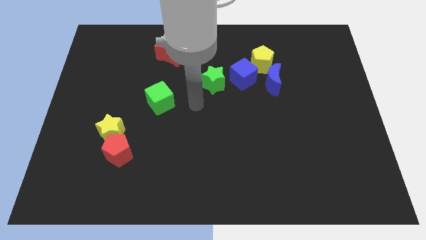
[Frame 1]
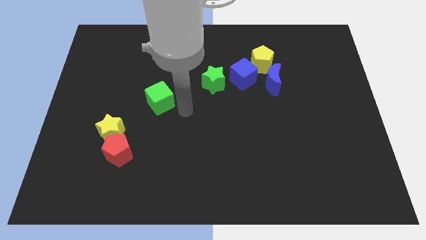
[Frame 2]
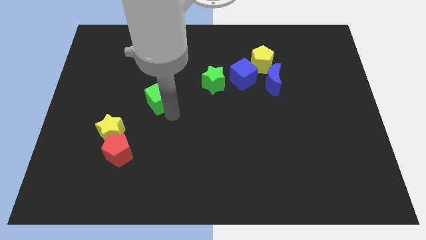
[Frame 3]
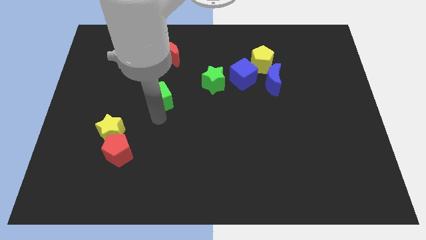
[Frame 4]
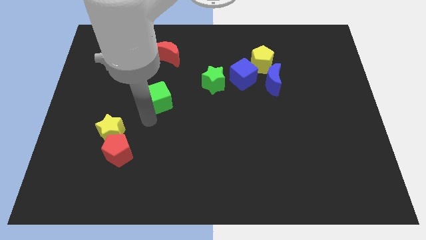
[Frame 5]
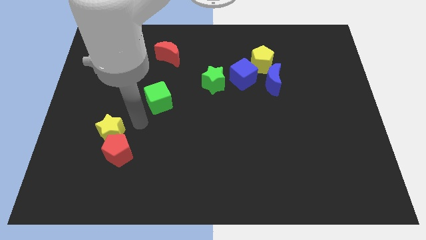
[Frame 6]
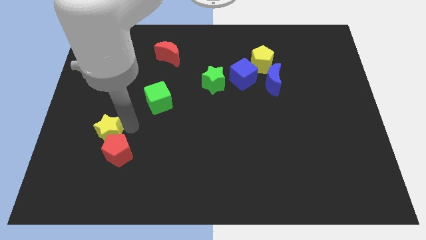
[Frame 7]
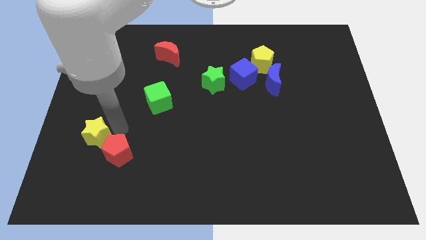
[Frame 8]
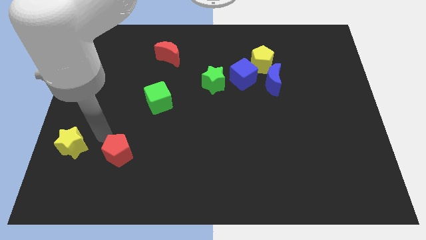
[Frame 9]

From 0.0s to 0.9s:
separate the red pentagon from the yellow star

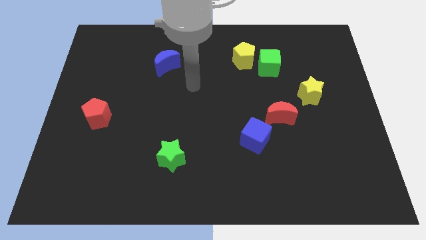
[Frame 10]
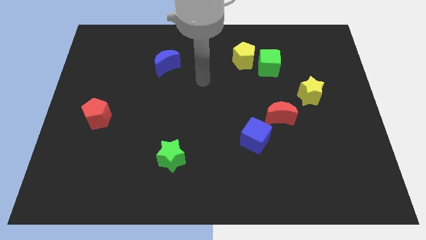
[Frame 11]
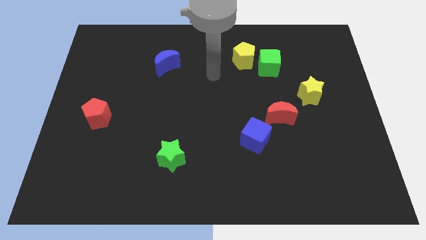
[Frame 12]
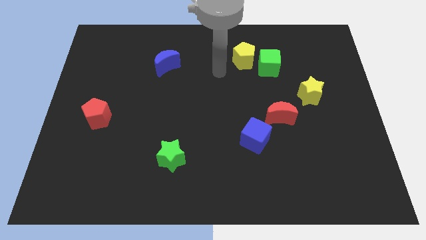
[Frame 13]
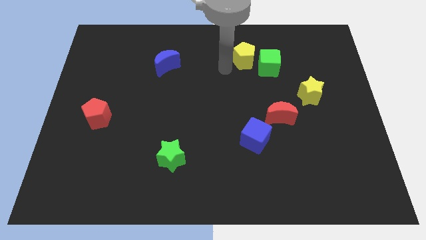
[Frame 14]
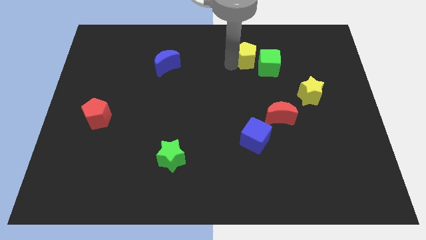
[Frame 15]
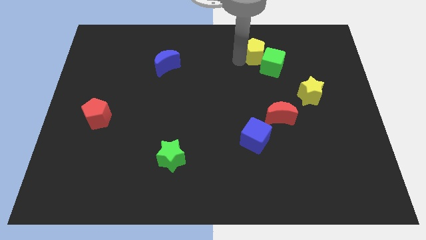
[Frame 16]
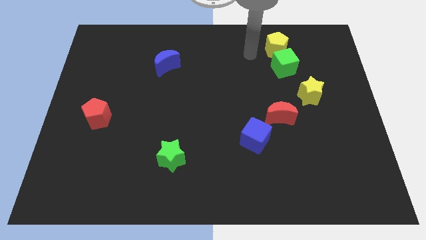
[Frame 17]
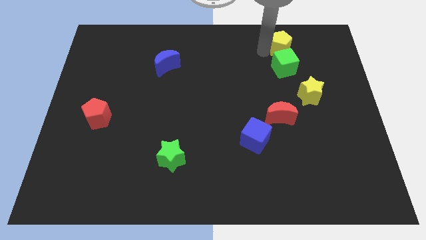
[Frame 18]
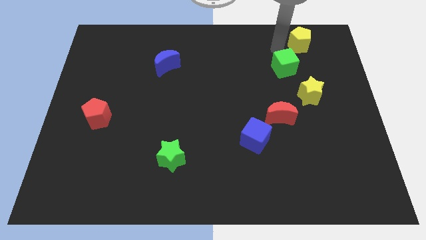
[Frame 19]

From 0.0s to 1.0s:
separate the green cube from the yellow pentagon

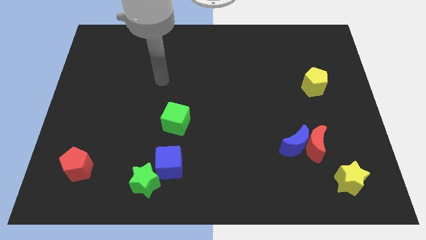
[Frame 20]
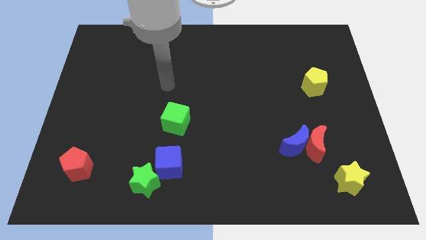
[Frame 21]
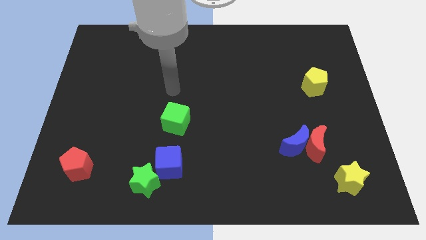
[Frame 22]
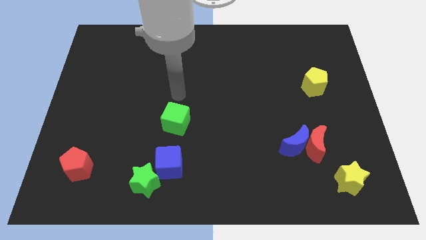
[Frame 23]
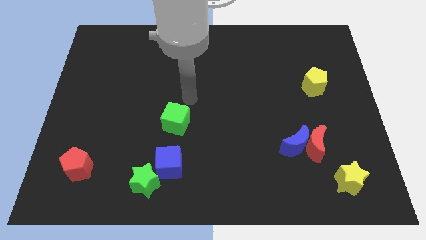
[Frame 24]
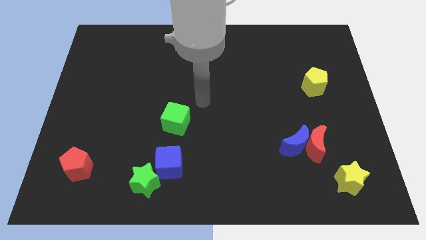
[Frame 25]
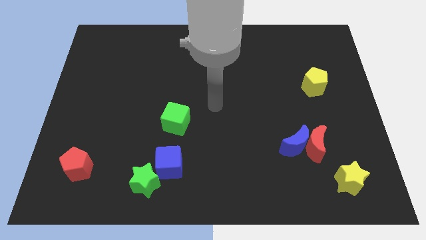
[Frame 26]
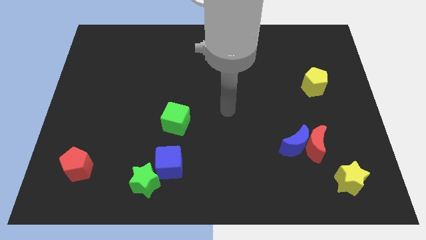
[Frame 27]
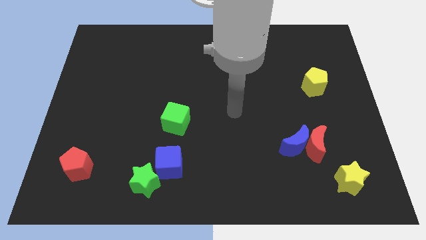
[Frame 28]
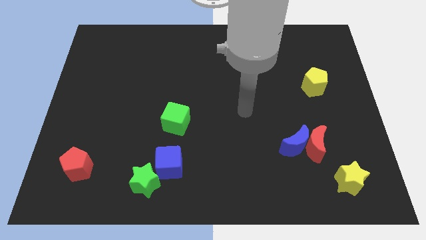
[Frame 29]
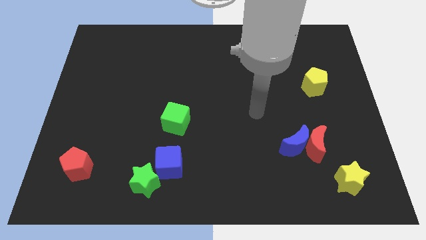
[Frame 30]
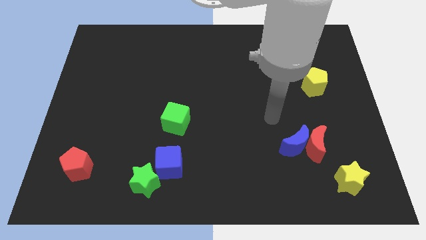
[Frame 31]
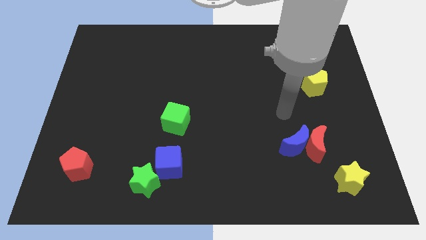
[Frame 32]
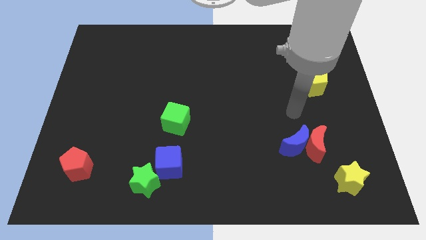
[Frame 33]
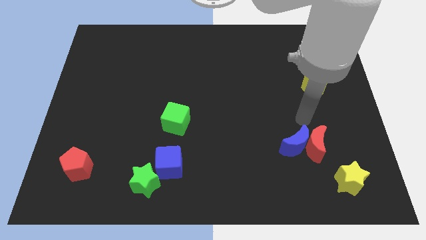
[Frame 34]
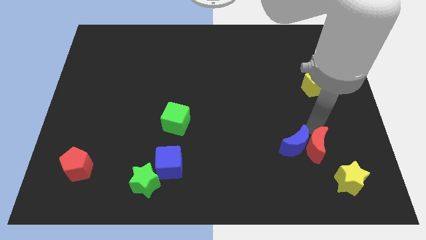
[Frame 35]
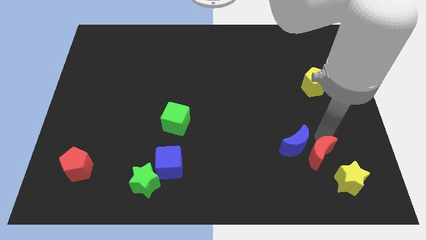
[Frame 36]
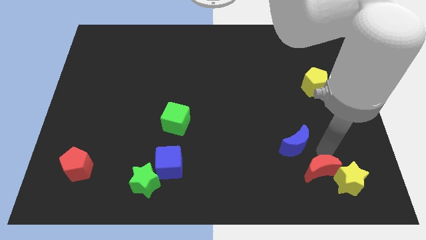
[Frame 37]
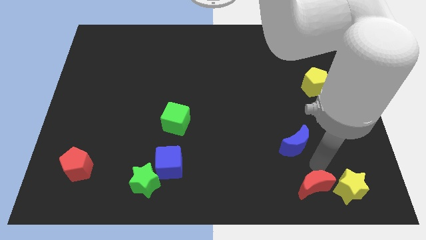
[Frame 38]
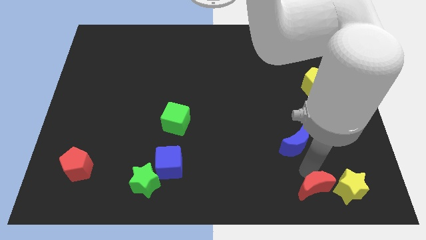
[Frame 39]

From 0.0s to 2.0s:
pull the blue moon apart from the red moon

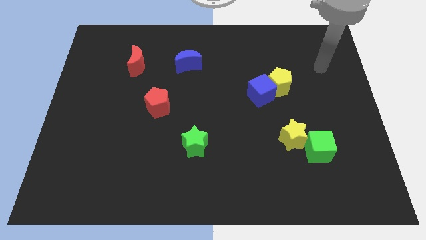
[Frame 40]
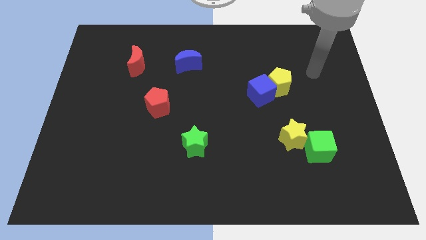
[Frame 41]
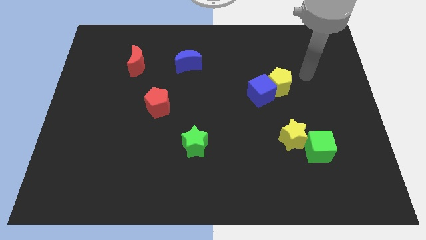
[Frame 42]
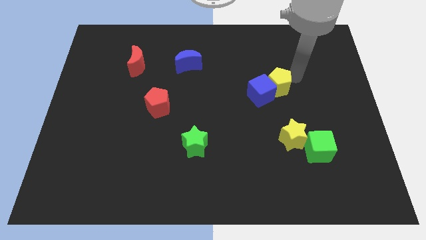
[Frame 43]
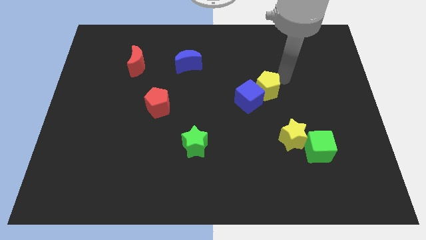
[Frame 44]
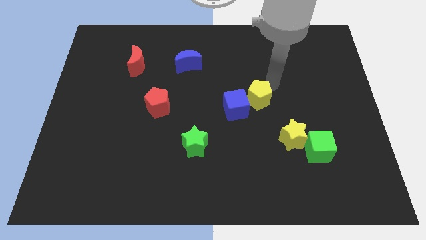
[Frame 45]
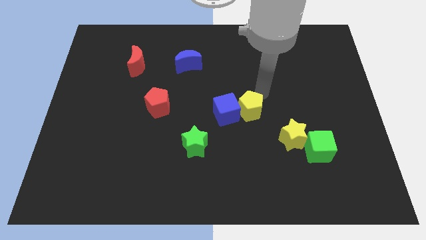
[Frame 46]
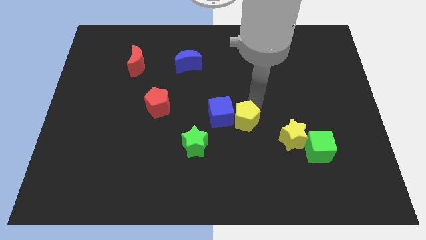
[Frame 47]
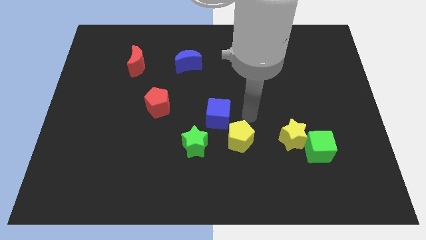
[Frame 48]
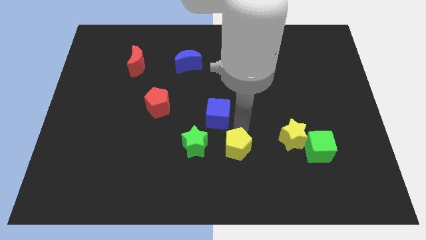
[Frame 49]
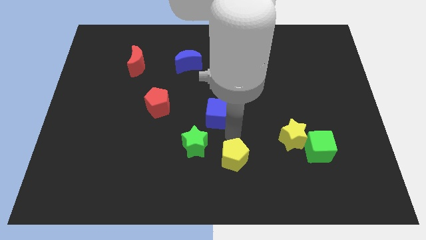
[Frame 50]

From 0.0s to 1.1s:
pull the blue cube apart from the yellow pentagon

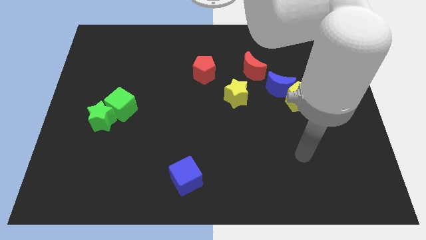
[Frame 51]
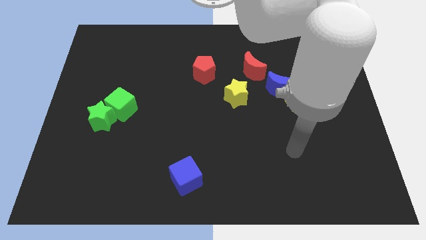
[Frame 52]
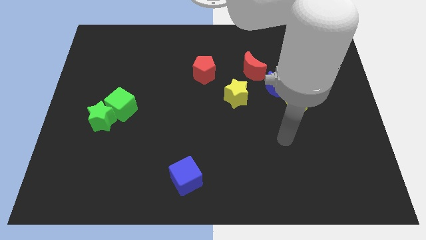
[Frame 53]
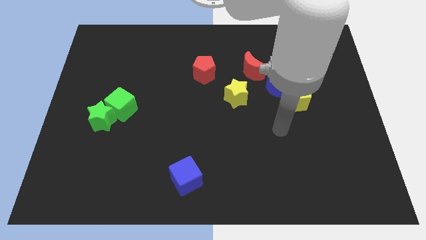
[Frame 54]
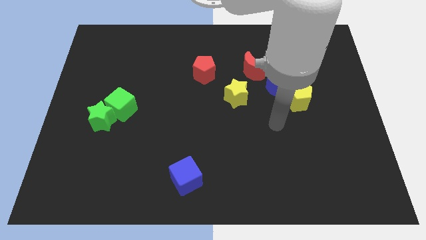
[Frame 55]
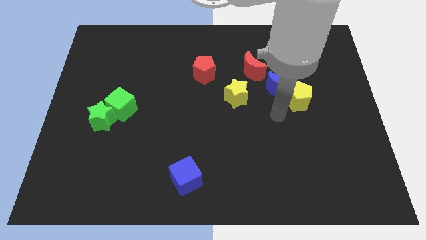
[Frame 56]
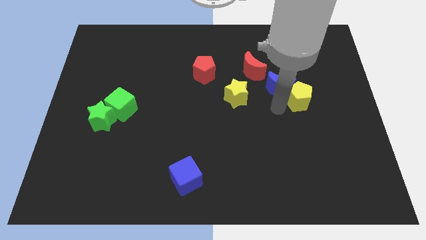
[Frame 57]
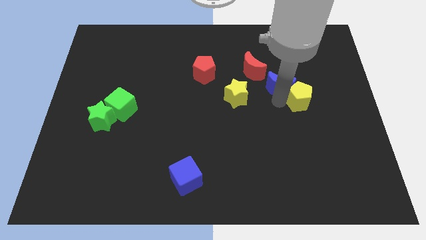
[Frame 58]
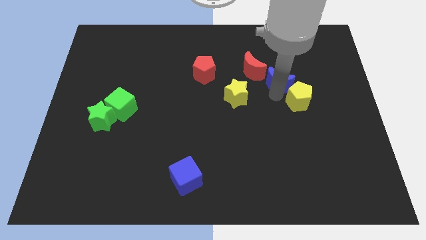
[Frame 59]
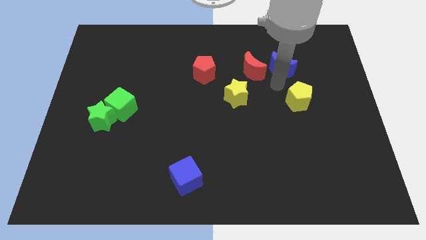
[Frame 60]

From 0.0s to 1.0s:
separate the yellow pentagon from the blue moon

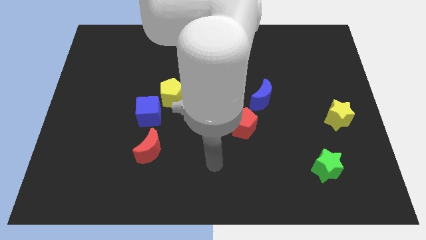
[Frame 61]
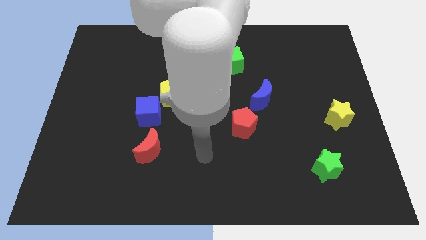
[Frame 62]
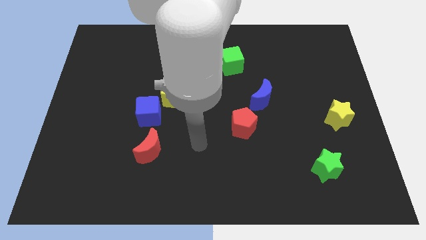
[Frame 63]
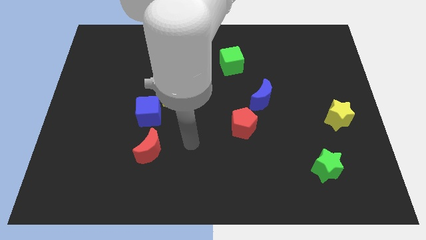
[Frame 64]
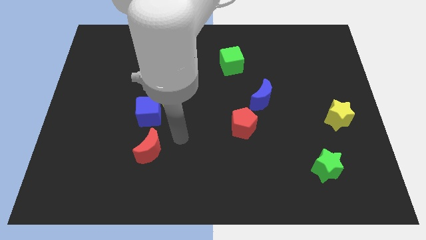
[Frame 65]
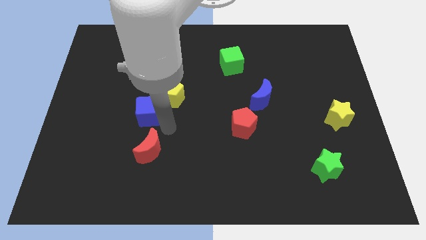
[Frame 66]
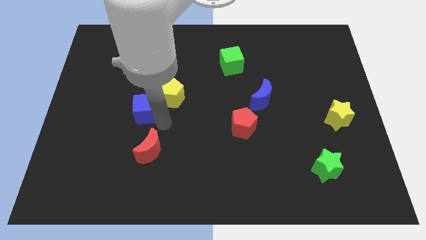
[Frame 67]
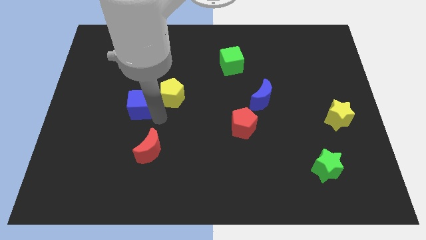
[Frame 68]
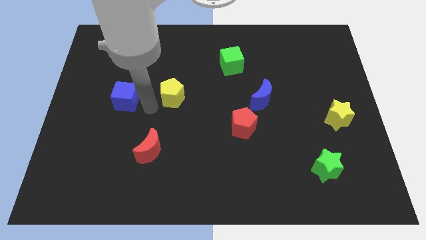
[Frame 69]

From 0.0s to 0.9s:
pull the yellow pentagon apart from the blue cube

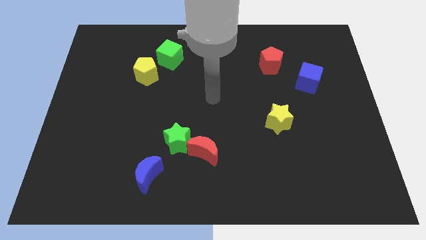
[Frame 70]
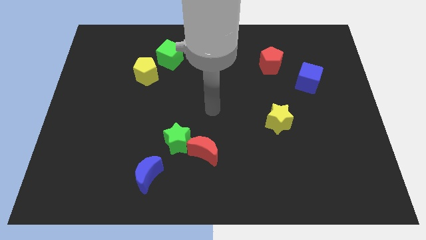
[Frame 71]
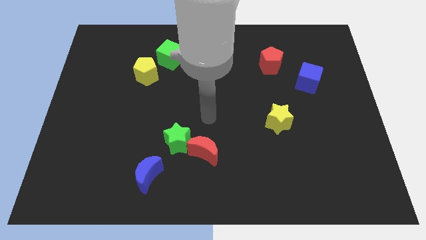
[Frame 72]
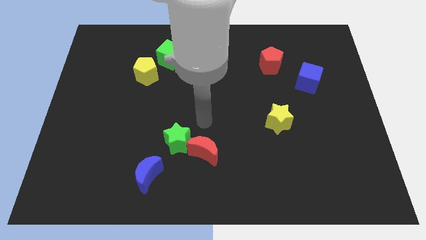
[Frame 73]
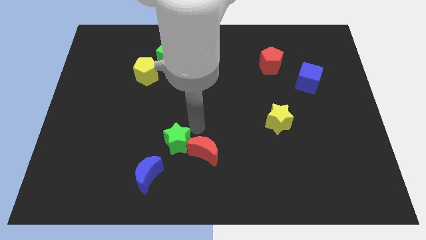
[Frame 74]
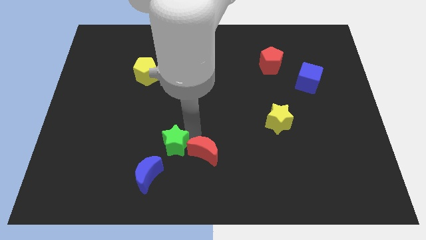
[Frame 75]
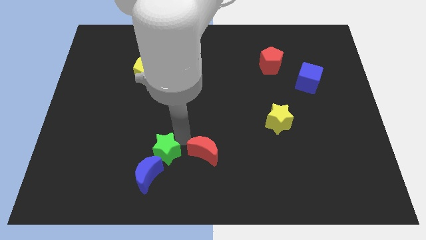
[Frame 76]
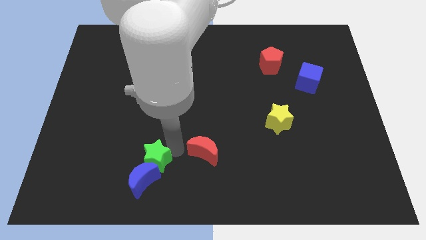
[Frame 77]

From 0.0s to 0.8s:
move the red moon away from the green star

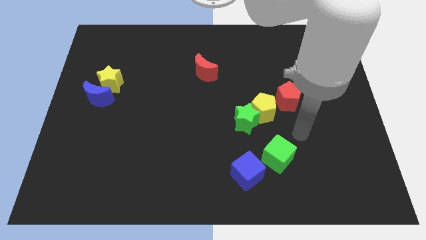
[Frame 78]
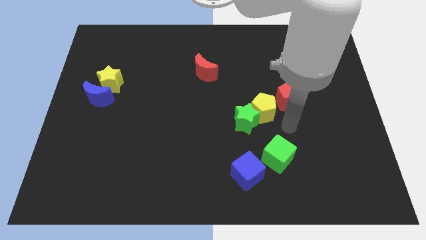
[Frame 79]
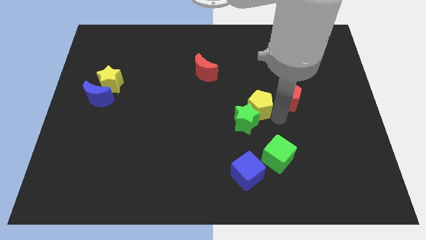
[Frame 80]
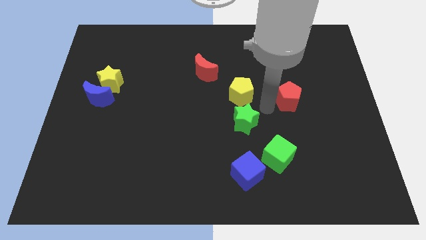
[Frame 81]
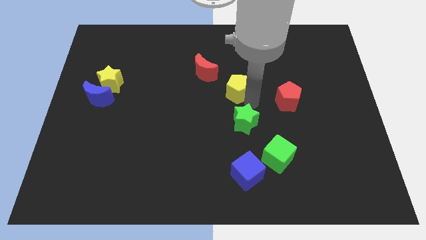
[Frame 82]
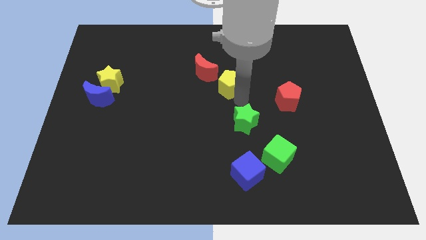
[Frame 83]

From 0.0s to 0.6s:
separate the green star from the yellow pentagon

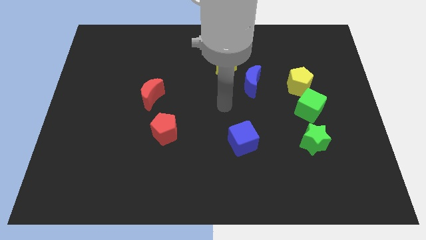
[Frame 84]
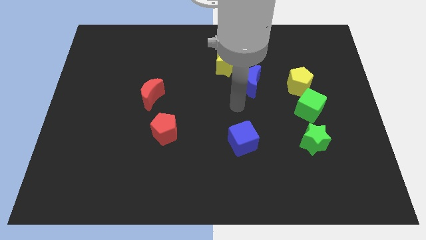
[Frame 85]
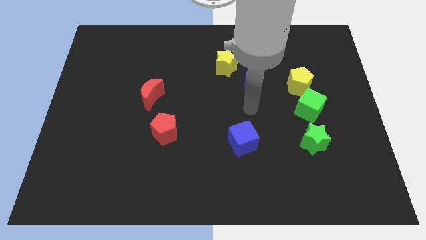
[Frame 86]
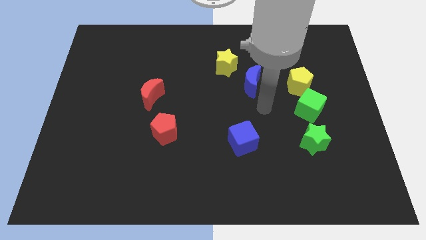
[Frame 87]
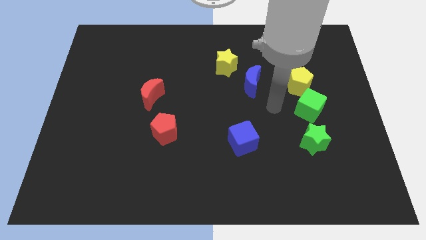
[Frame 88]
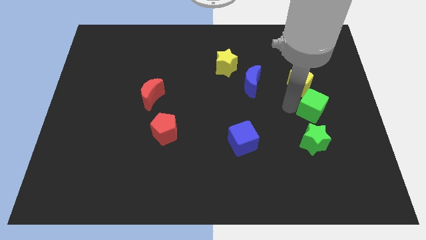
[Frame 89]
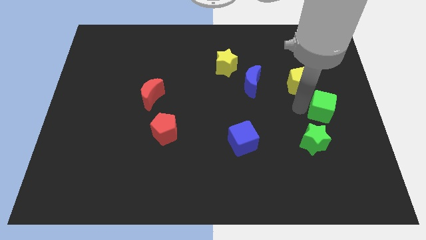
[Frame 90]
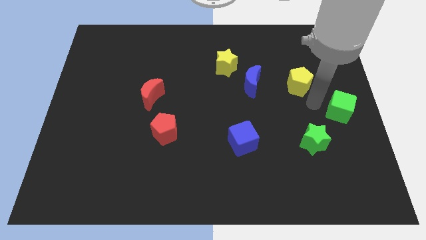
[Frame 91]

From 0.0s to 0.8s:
separate the yellow pentagon from the green cube

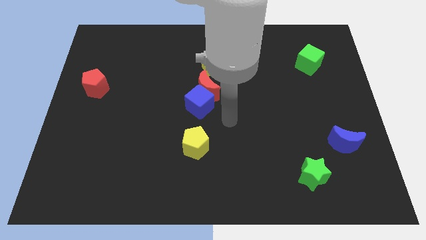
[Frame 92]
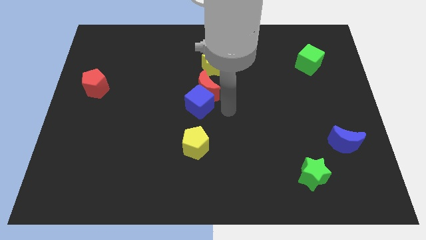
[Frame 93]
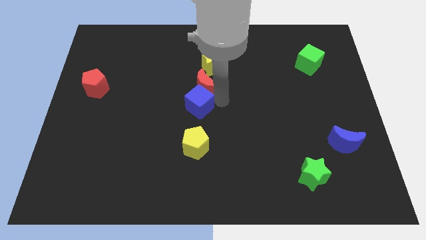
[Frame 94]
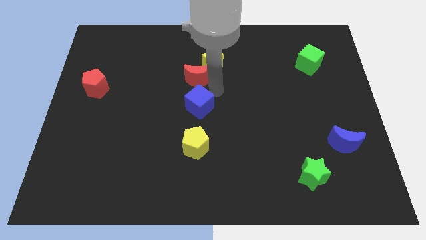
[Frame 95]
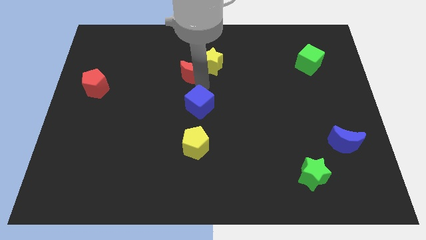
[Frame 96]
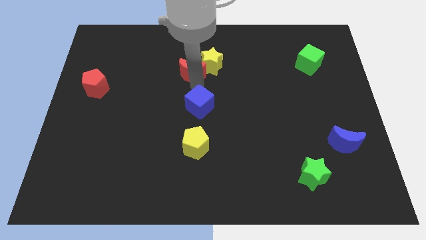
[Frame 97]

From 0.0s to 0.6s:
move the blue cube away from the red moon
